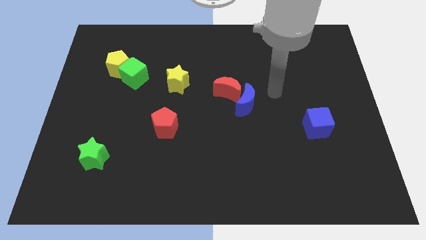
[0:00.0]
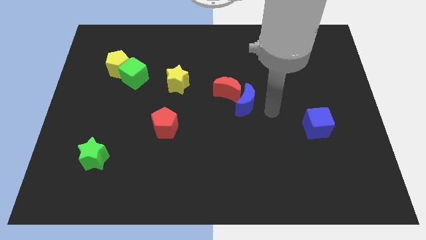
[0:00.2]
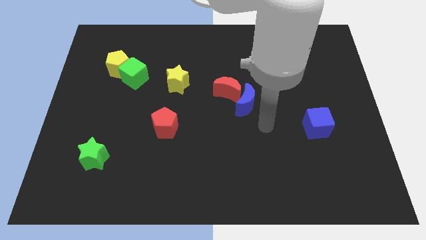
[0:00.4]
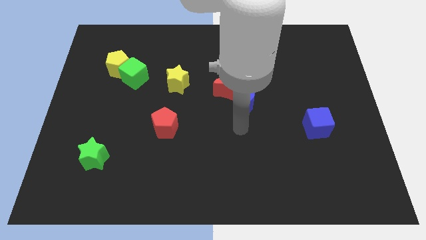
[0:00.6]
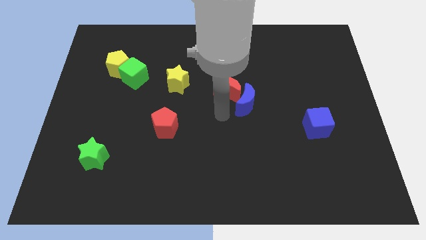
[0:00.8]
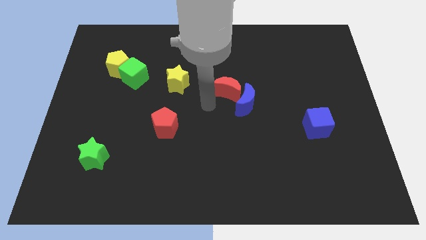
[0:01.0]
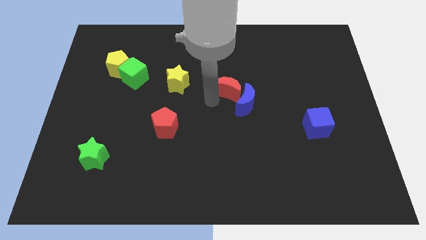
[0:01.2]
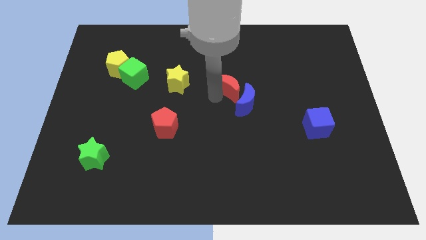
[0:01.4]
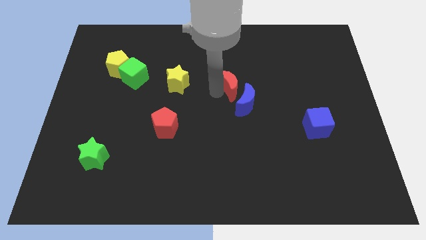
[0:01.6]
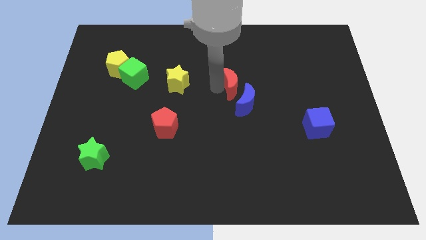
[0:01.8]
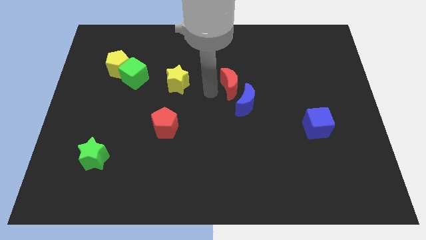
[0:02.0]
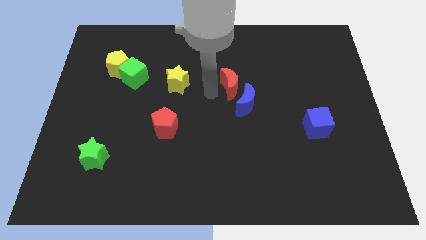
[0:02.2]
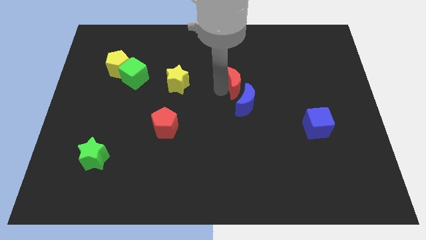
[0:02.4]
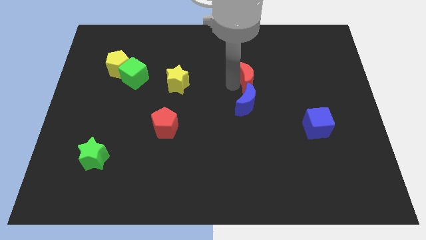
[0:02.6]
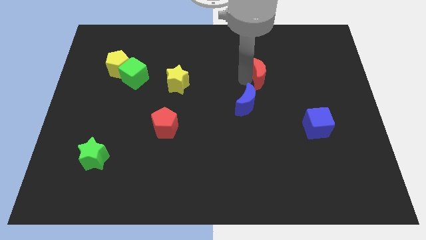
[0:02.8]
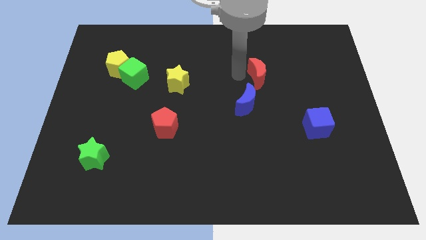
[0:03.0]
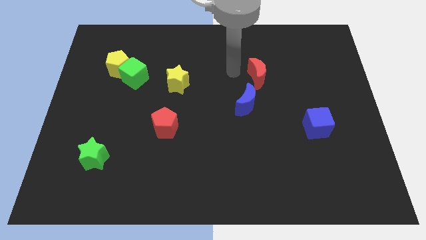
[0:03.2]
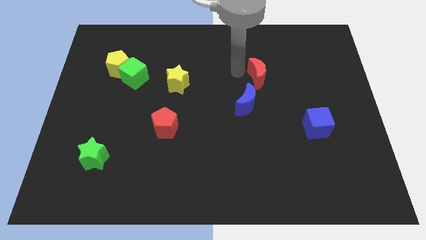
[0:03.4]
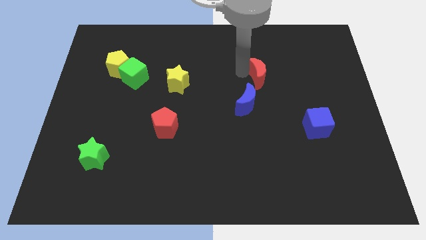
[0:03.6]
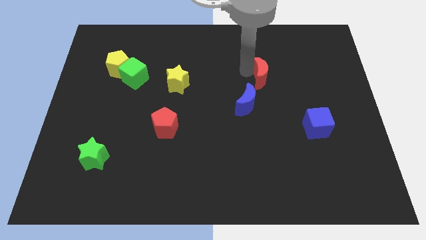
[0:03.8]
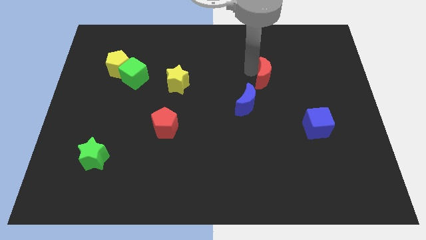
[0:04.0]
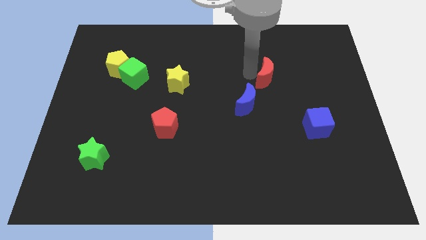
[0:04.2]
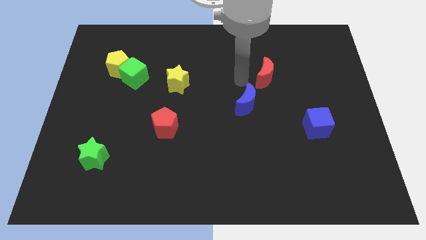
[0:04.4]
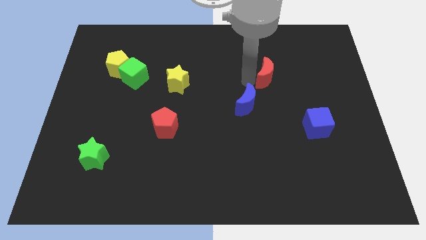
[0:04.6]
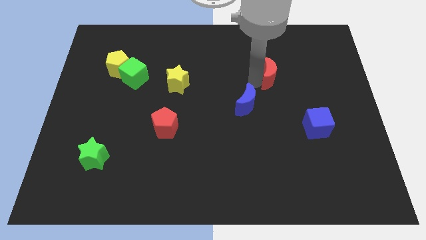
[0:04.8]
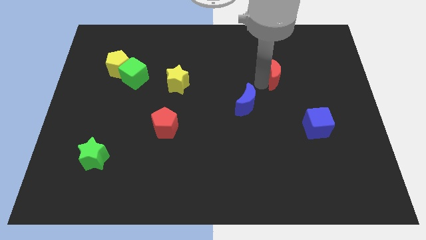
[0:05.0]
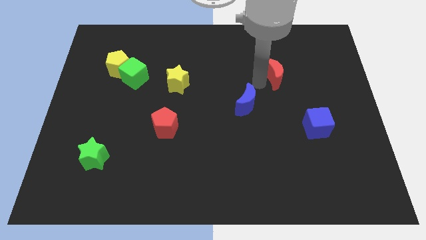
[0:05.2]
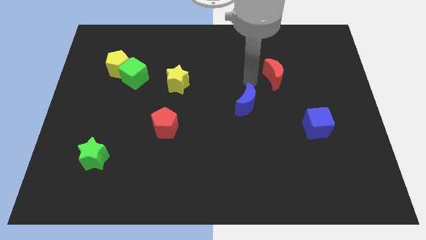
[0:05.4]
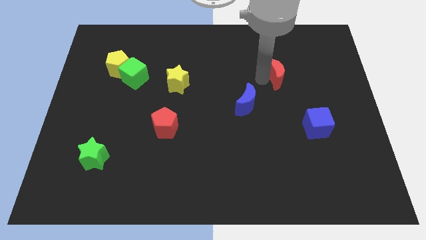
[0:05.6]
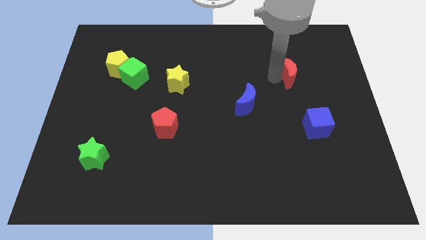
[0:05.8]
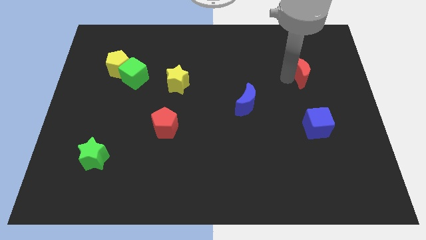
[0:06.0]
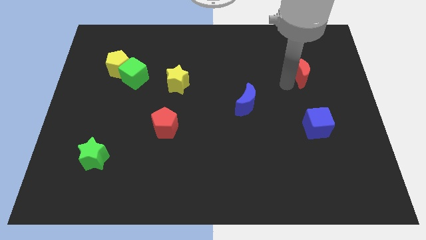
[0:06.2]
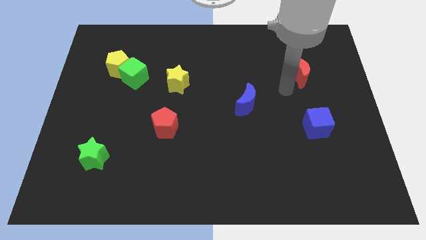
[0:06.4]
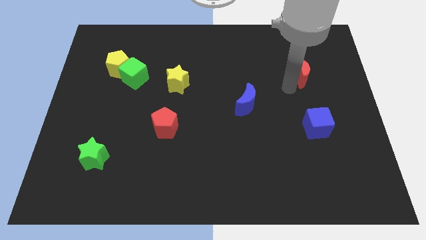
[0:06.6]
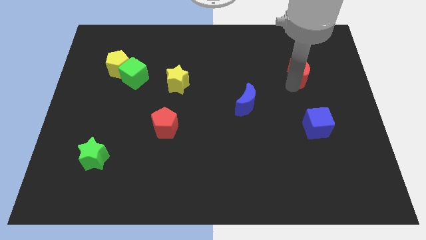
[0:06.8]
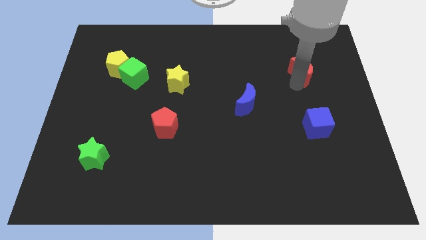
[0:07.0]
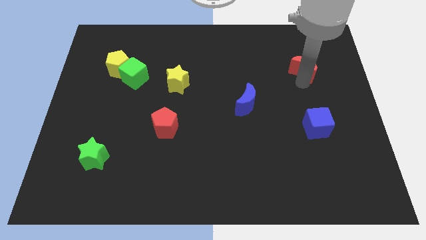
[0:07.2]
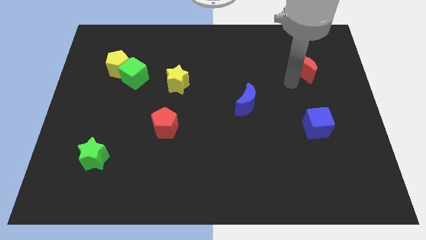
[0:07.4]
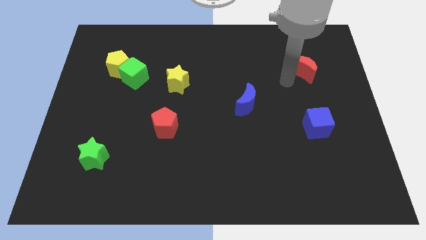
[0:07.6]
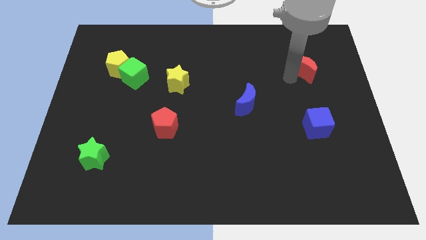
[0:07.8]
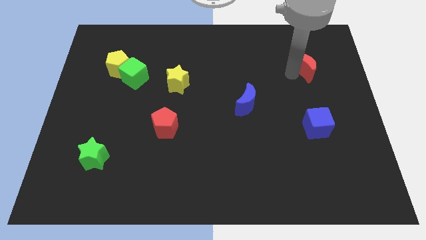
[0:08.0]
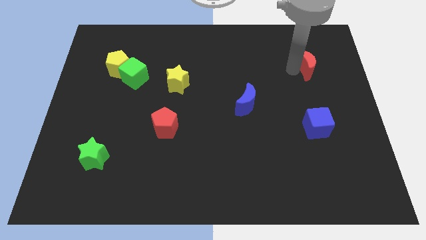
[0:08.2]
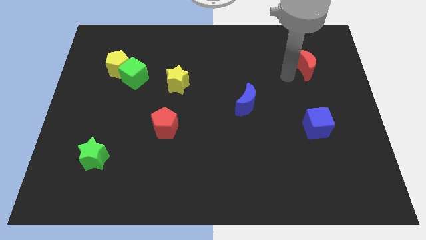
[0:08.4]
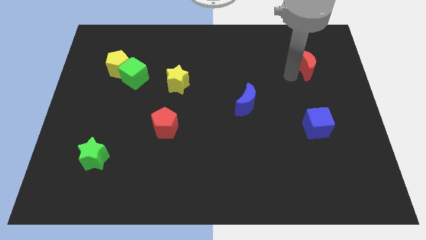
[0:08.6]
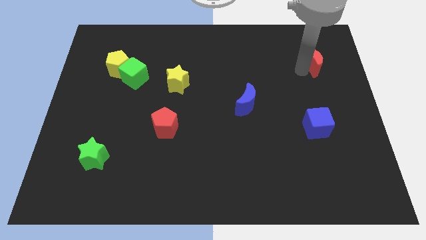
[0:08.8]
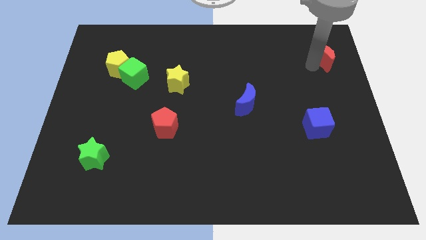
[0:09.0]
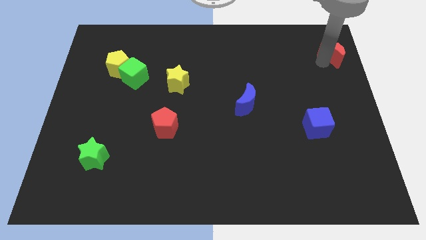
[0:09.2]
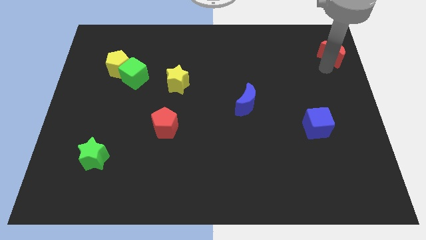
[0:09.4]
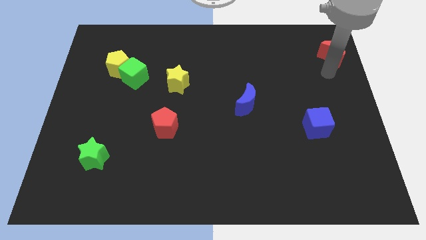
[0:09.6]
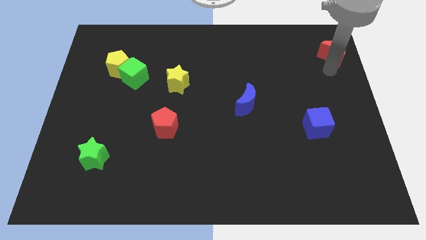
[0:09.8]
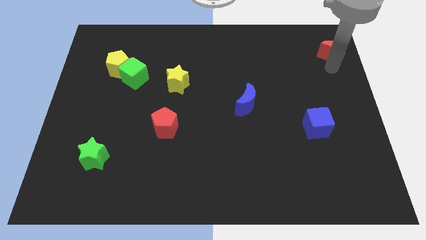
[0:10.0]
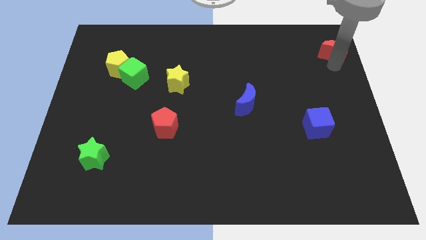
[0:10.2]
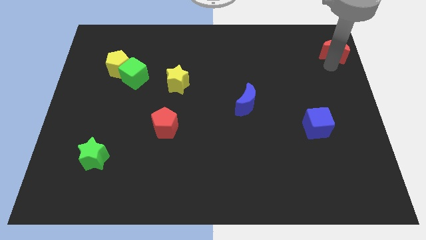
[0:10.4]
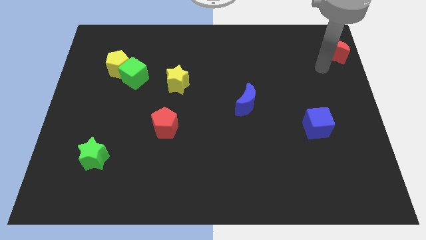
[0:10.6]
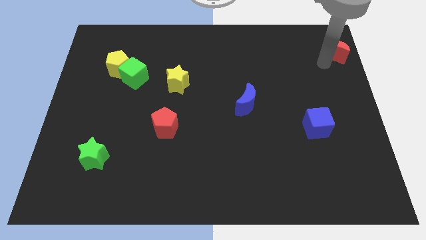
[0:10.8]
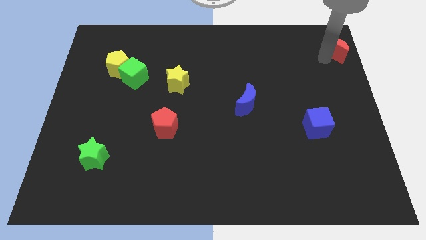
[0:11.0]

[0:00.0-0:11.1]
push the red moon to the upper right corner

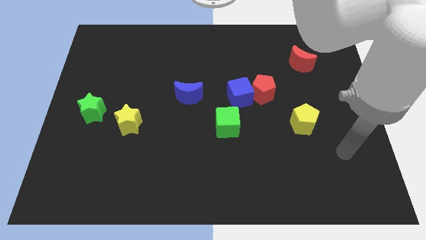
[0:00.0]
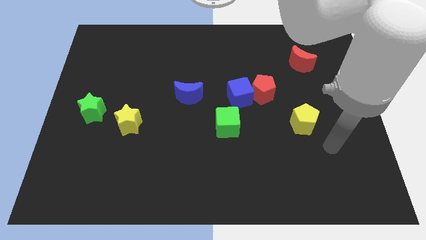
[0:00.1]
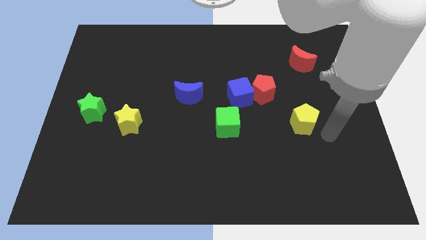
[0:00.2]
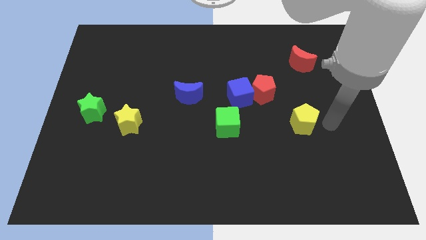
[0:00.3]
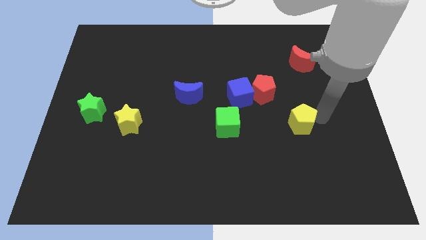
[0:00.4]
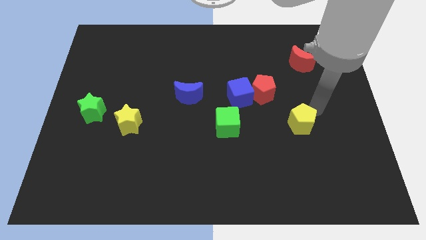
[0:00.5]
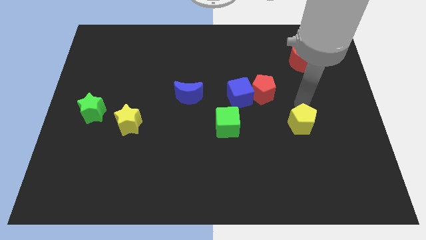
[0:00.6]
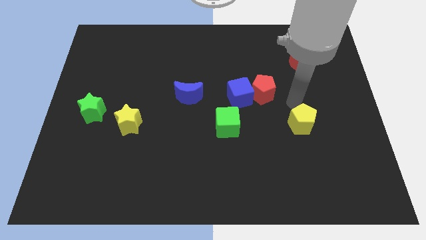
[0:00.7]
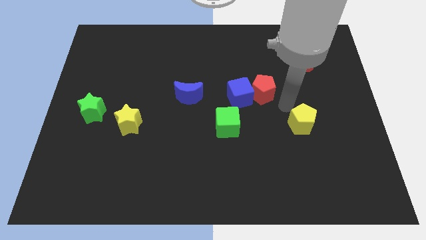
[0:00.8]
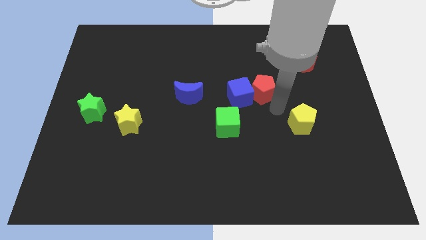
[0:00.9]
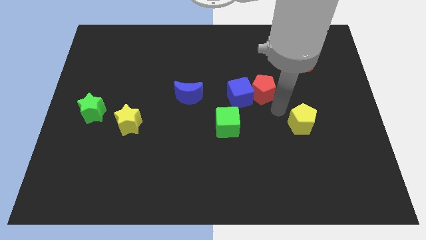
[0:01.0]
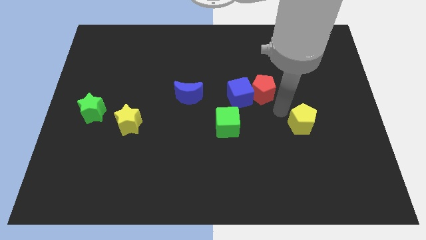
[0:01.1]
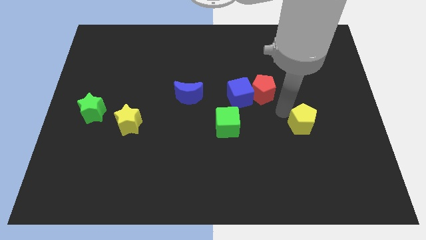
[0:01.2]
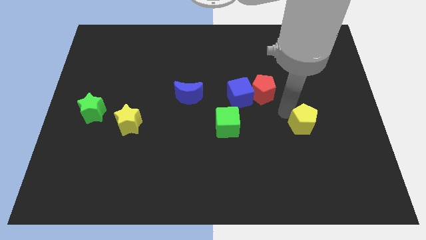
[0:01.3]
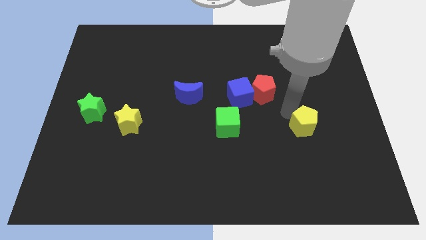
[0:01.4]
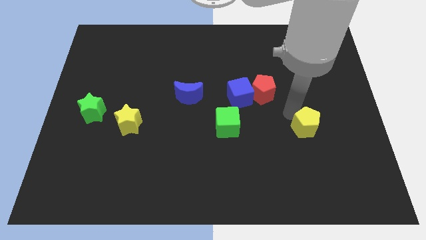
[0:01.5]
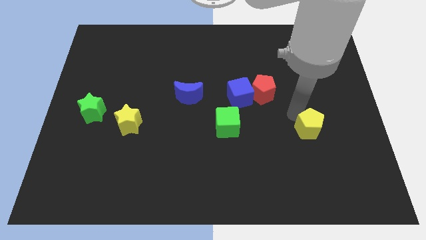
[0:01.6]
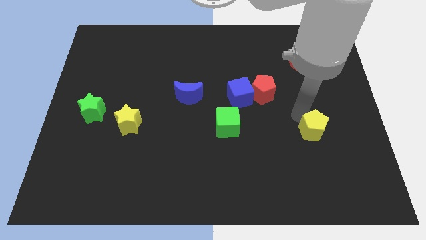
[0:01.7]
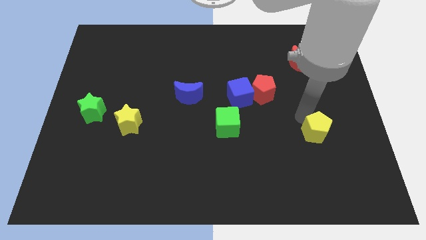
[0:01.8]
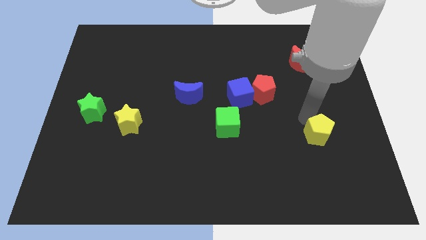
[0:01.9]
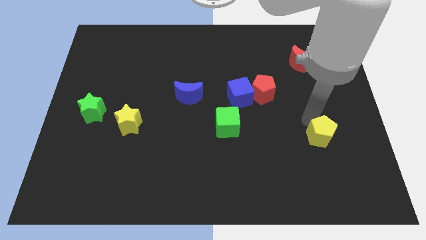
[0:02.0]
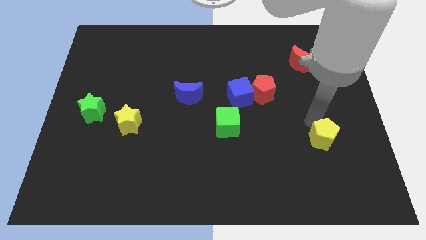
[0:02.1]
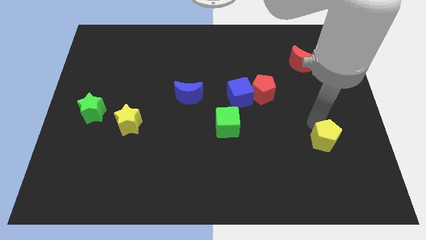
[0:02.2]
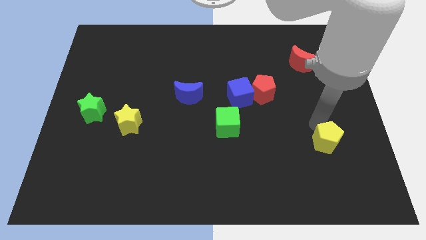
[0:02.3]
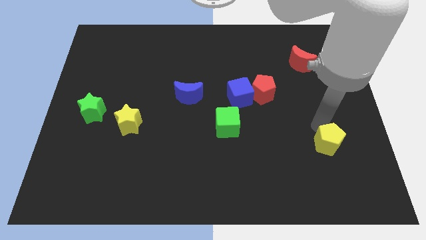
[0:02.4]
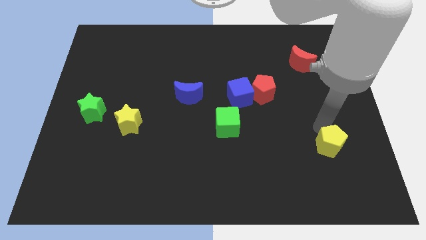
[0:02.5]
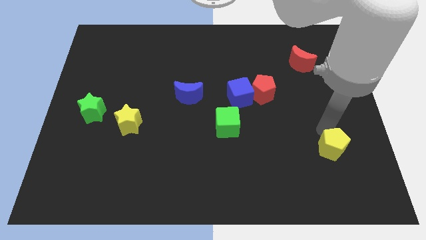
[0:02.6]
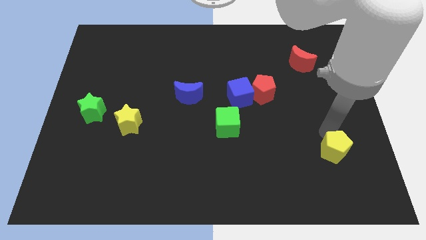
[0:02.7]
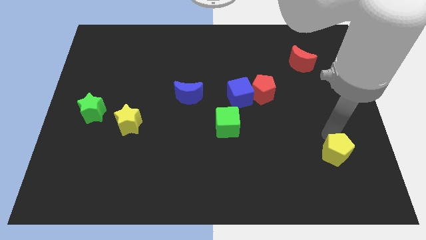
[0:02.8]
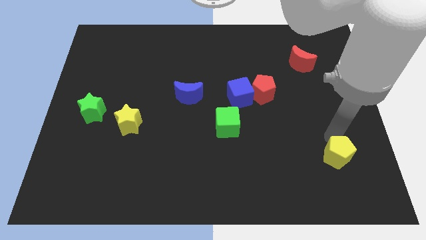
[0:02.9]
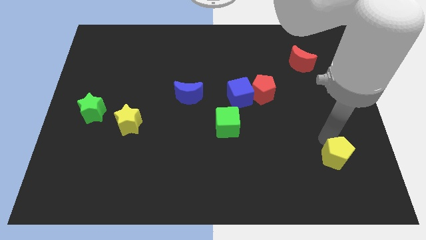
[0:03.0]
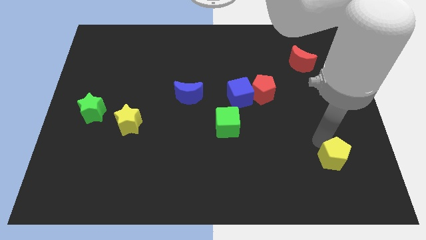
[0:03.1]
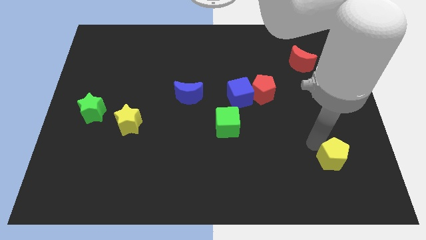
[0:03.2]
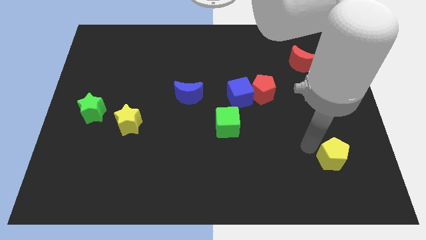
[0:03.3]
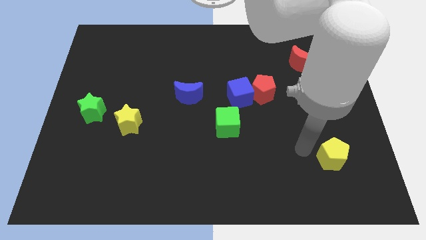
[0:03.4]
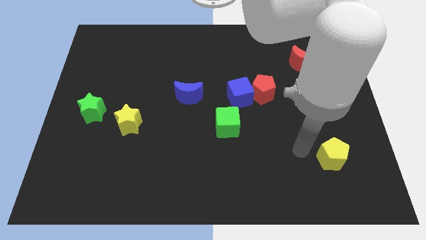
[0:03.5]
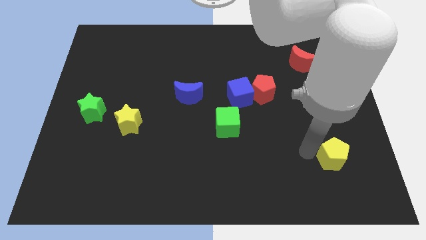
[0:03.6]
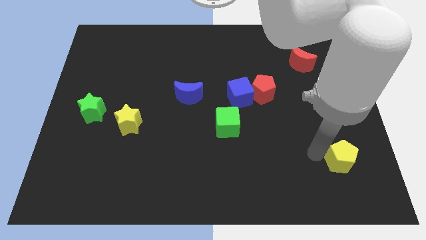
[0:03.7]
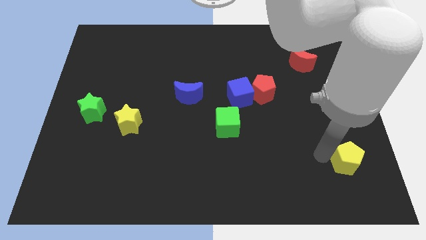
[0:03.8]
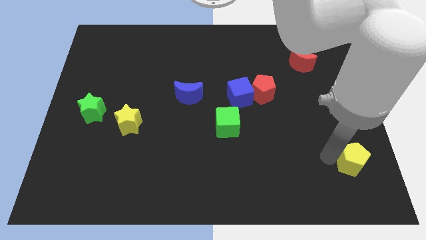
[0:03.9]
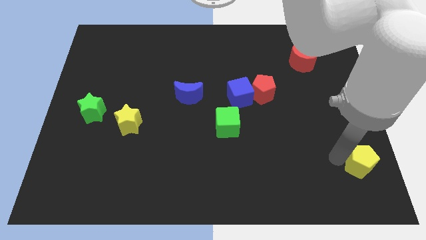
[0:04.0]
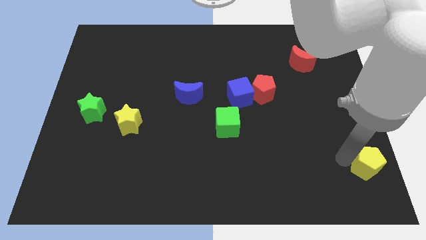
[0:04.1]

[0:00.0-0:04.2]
slide the yellow pentagon to the bottom right of the board
